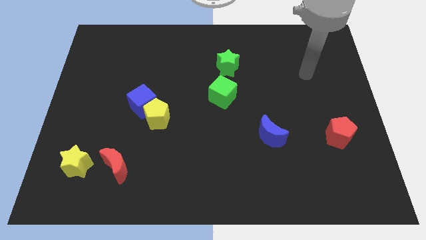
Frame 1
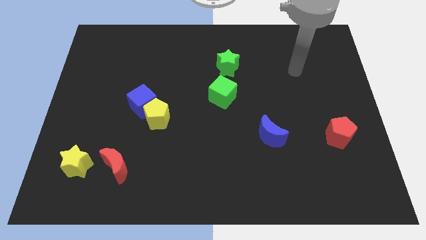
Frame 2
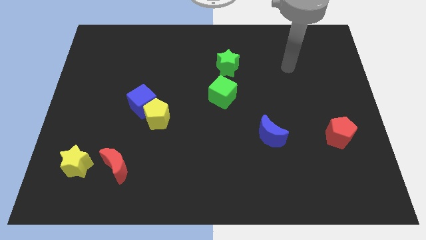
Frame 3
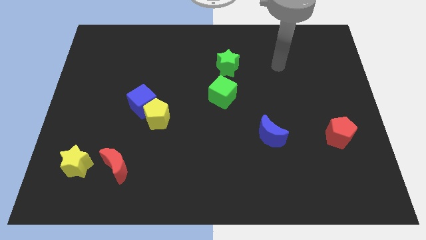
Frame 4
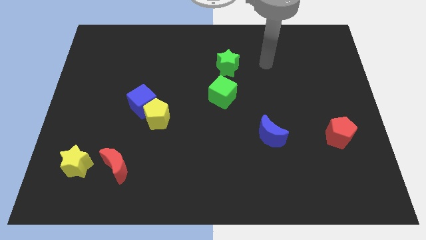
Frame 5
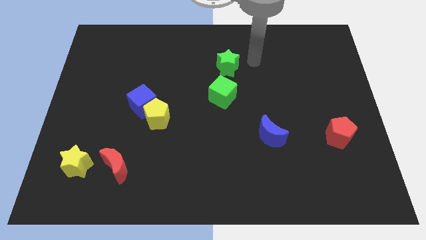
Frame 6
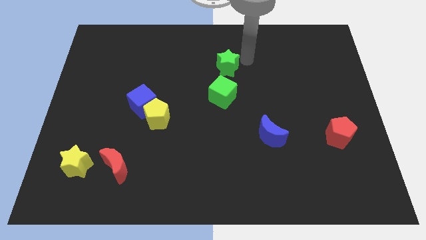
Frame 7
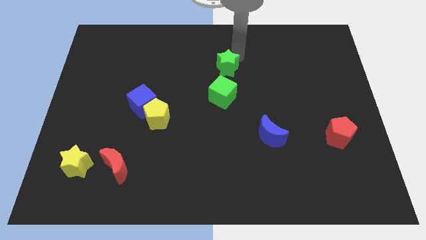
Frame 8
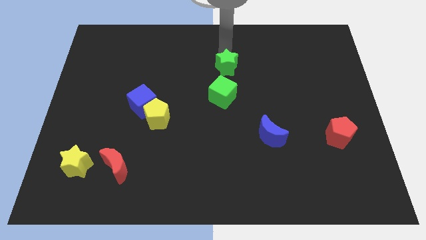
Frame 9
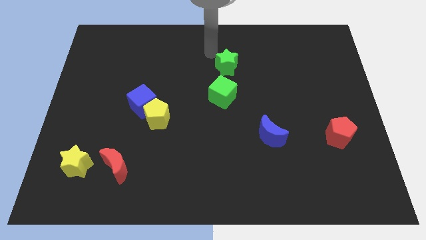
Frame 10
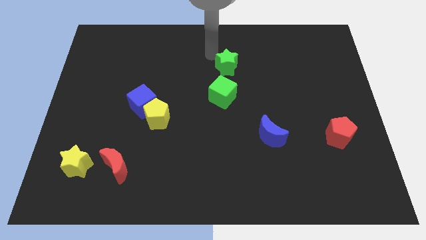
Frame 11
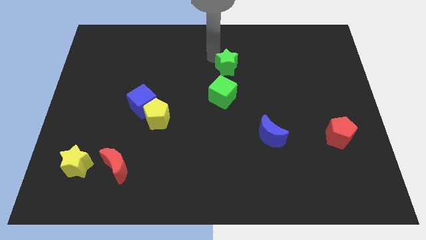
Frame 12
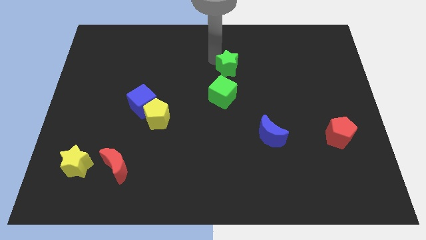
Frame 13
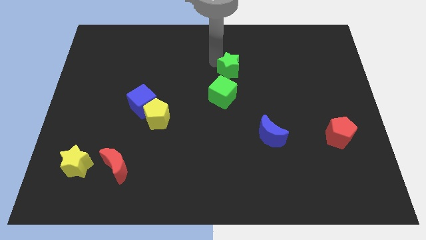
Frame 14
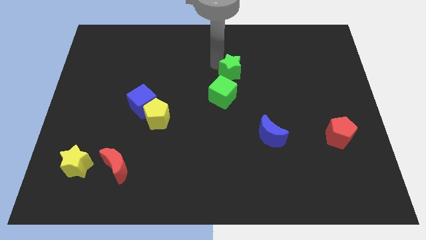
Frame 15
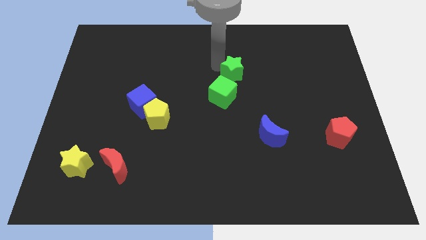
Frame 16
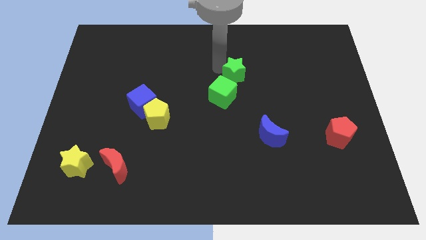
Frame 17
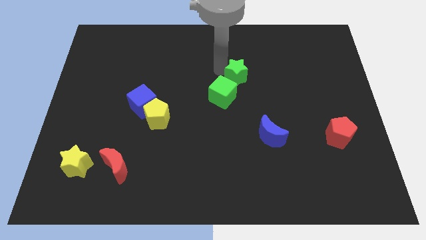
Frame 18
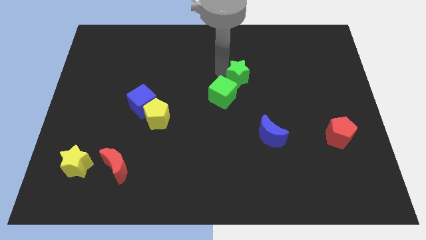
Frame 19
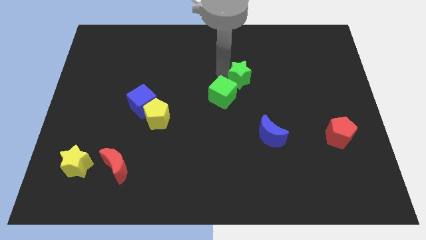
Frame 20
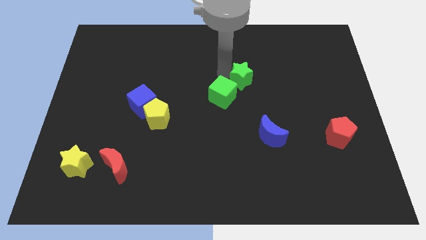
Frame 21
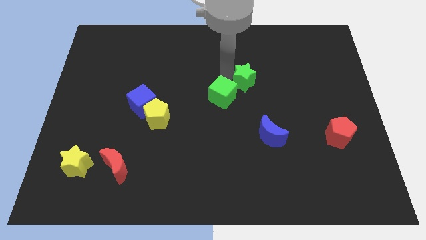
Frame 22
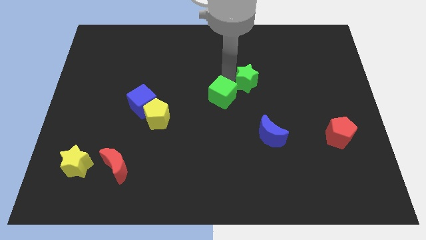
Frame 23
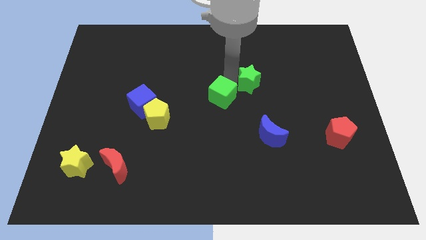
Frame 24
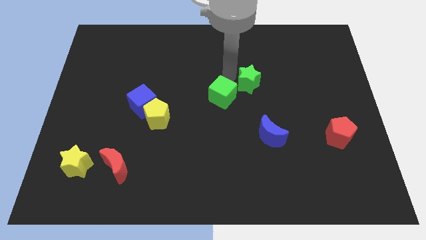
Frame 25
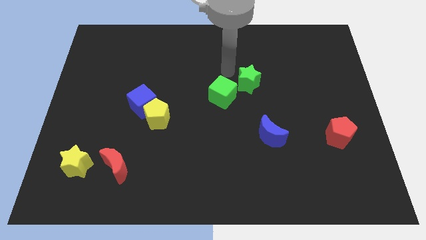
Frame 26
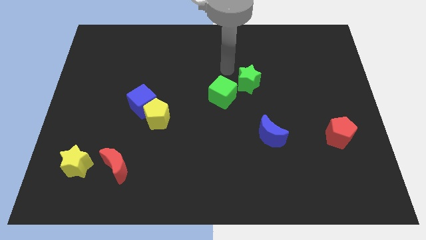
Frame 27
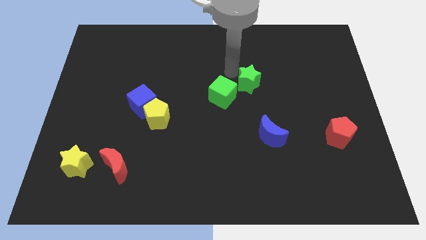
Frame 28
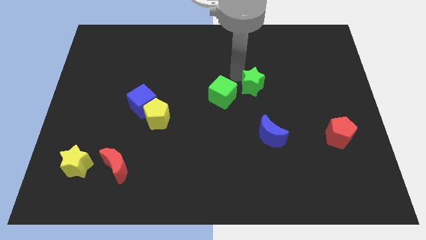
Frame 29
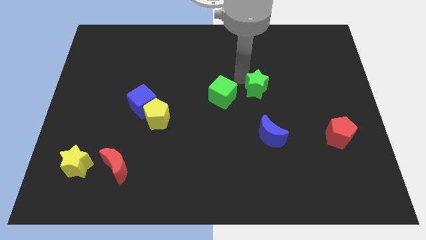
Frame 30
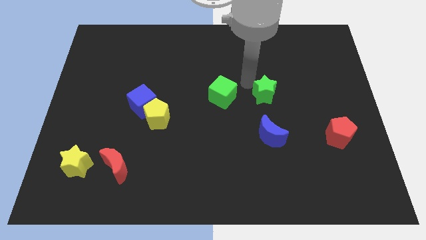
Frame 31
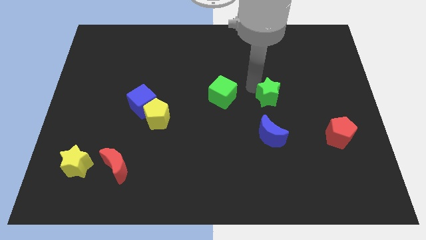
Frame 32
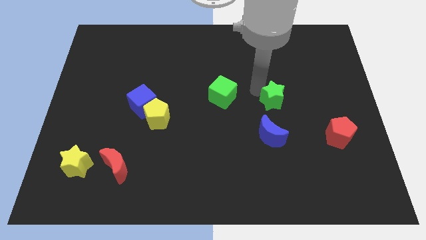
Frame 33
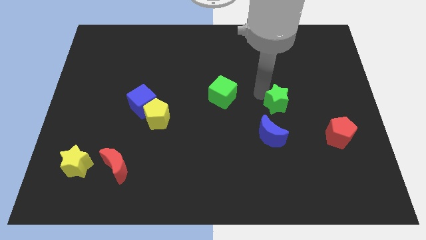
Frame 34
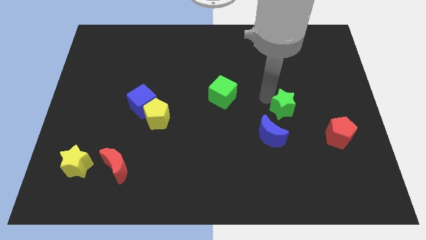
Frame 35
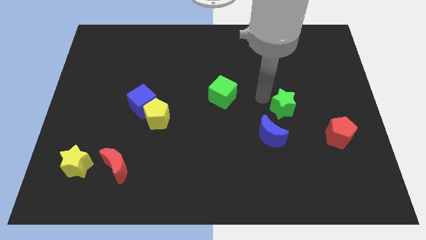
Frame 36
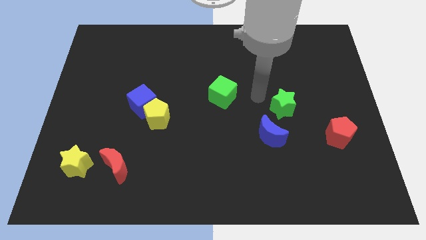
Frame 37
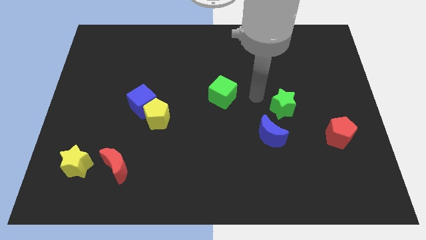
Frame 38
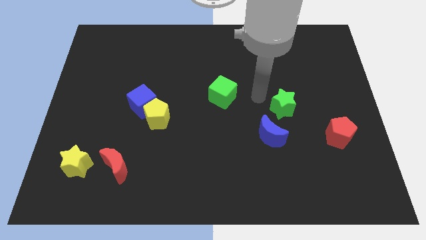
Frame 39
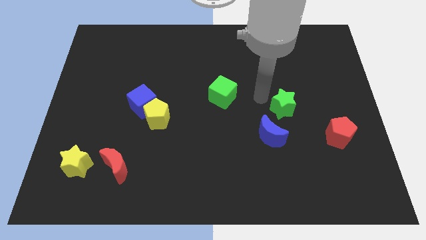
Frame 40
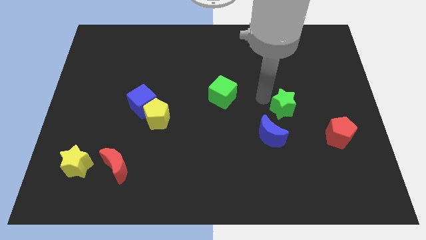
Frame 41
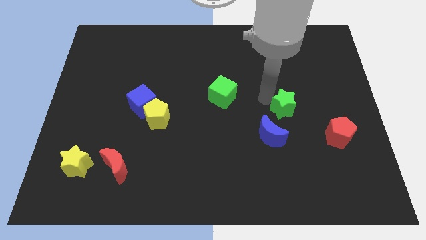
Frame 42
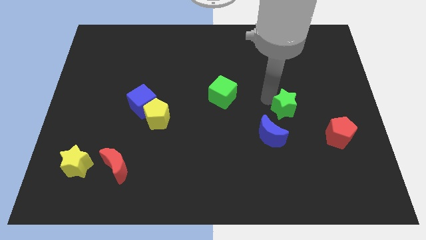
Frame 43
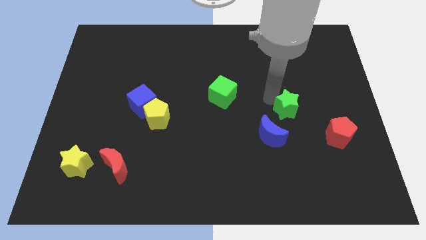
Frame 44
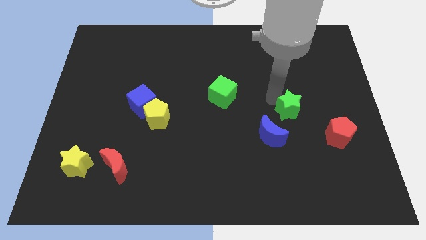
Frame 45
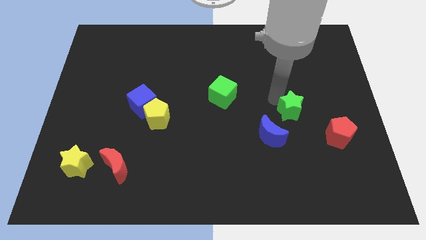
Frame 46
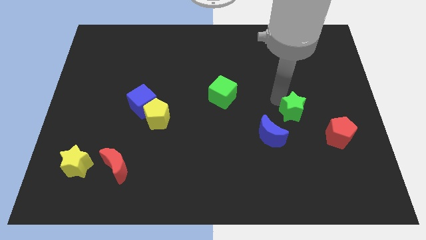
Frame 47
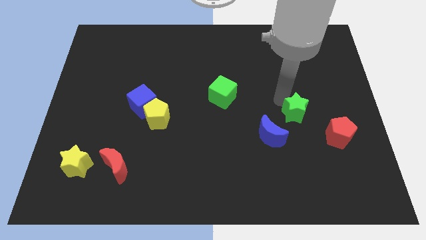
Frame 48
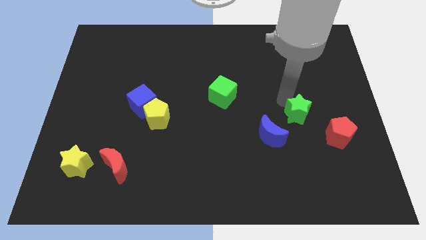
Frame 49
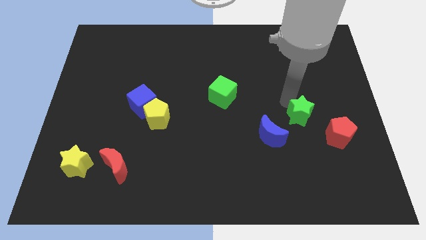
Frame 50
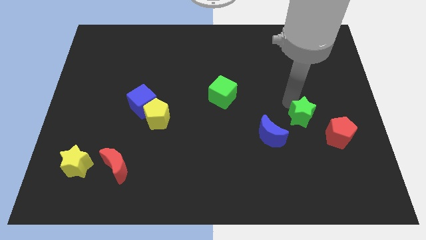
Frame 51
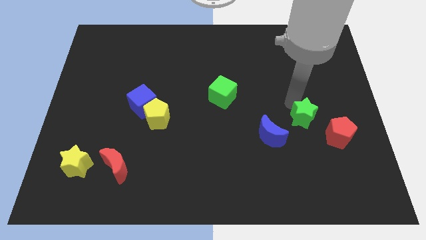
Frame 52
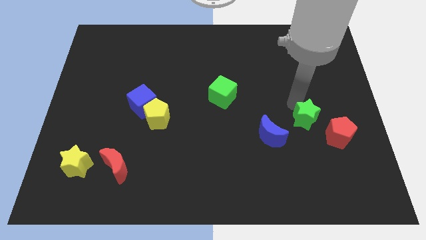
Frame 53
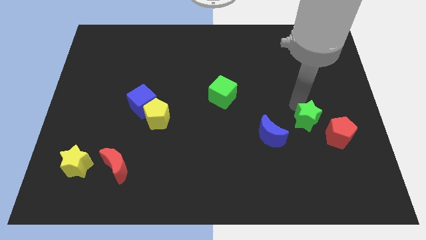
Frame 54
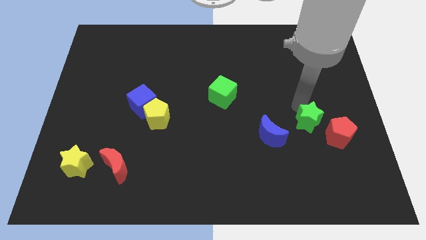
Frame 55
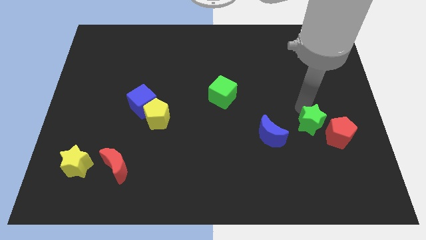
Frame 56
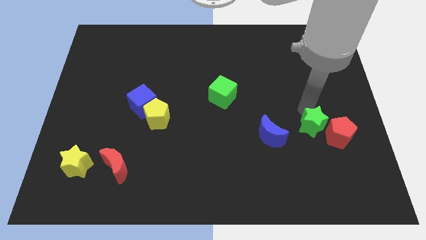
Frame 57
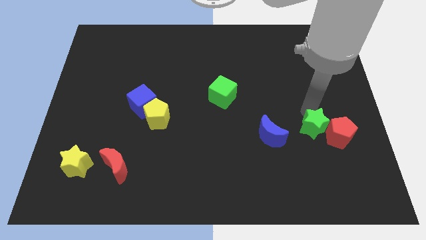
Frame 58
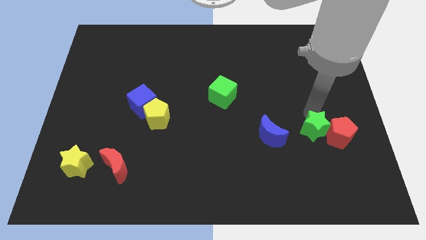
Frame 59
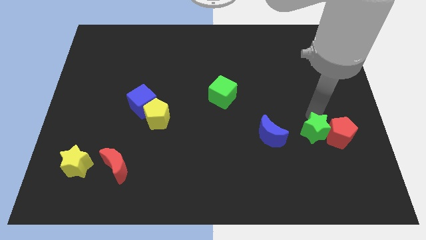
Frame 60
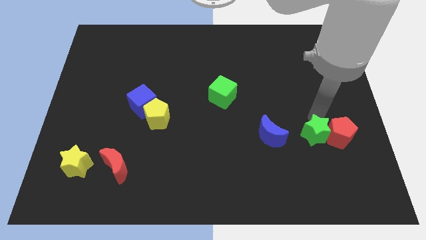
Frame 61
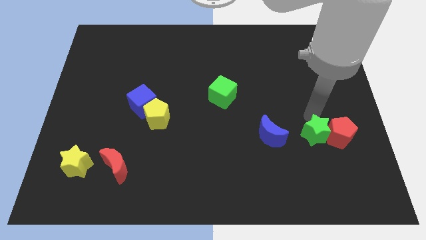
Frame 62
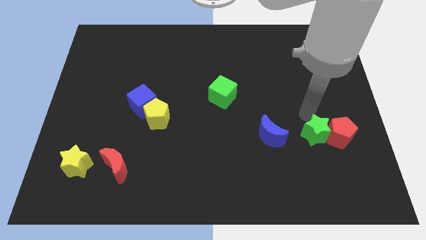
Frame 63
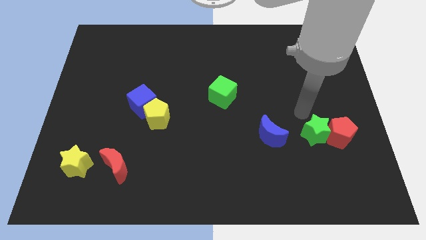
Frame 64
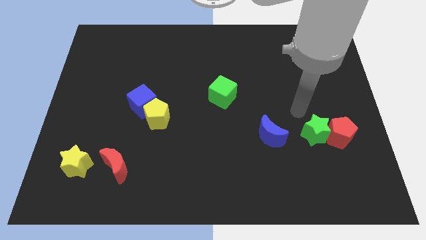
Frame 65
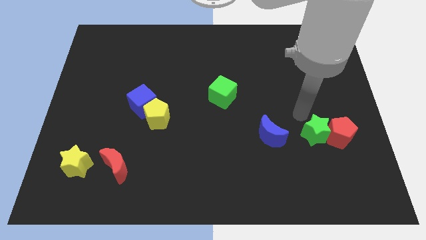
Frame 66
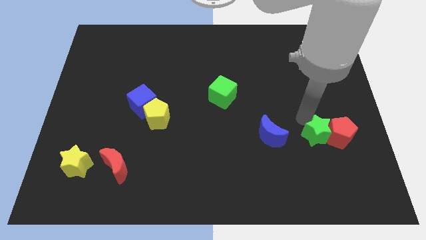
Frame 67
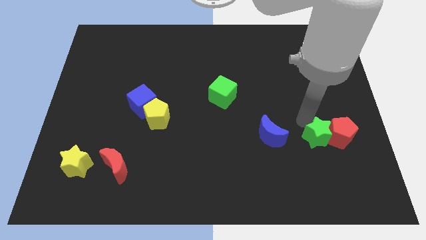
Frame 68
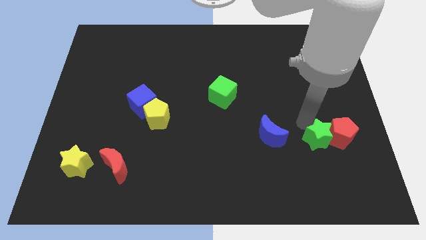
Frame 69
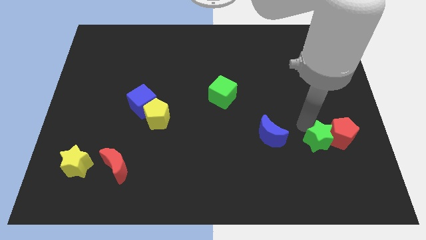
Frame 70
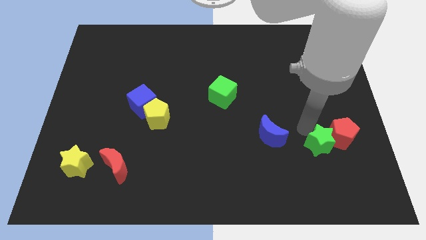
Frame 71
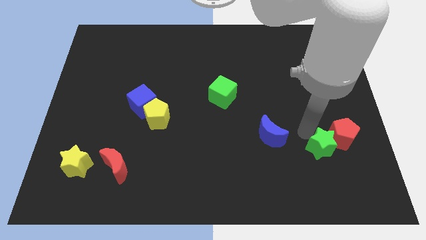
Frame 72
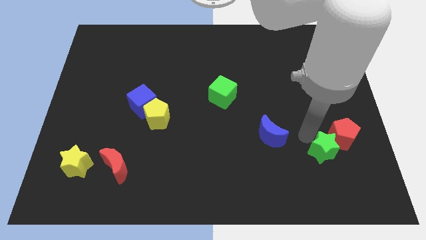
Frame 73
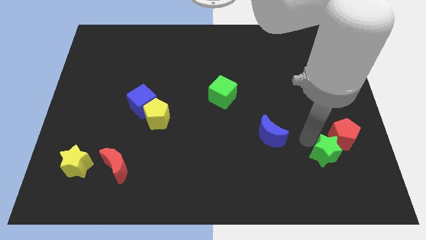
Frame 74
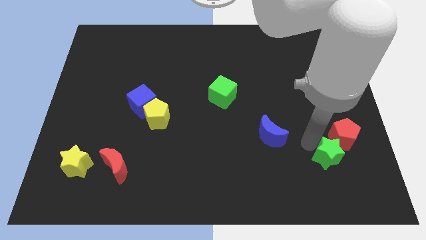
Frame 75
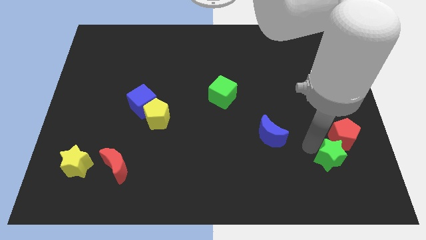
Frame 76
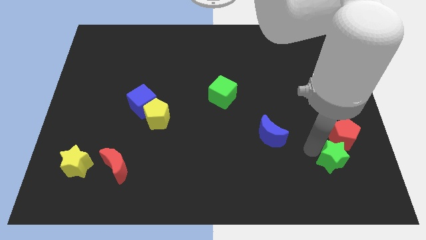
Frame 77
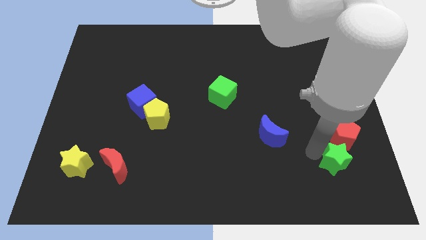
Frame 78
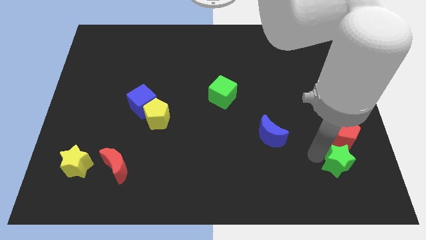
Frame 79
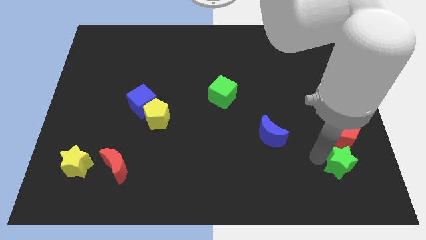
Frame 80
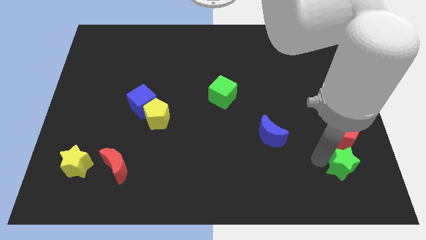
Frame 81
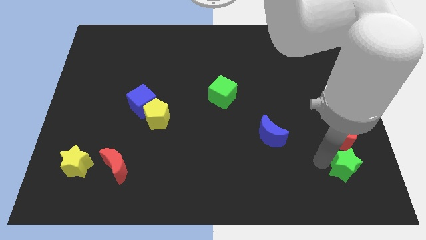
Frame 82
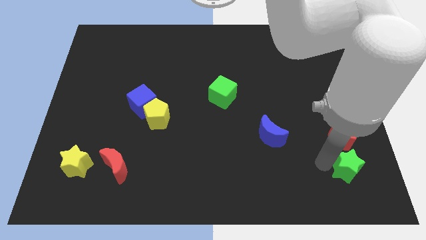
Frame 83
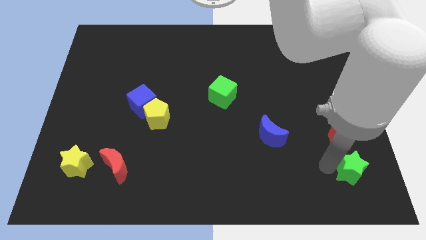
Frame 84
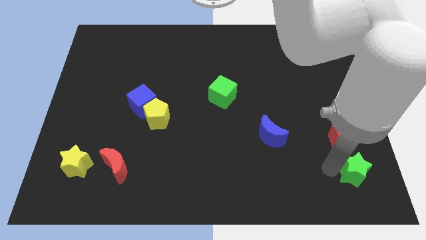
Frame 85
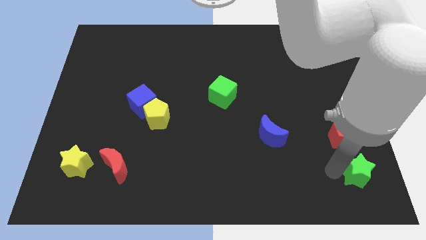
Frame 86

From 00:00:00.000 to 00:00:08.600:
slide the green star to the bottom right
